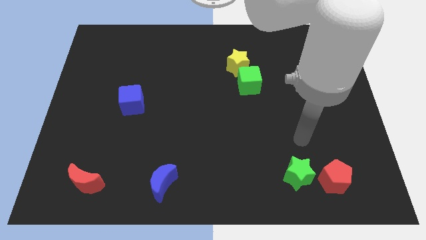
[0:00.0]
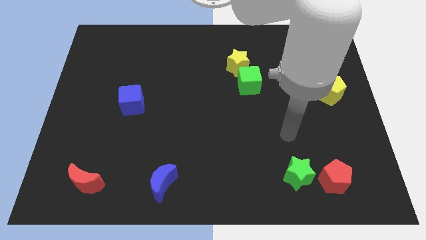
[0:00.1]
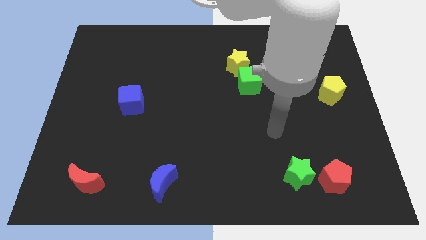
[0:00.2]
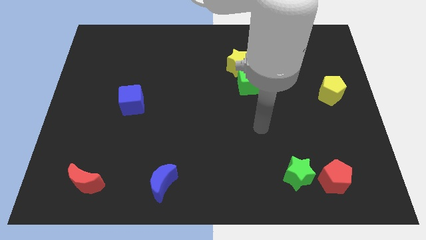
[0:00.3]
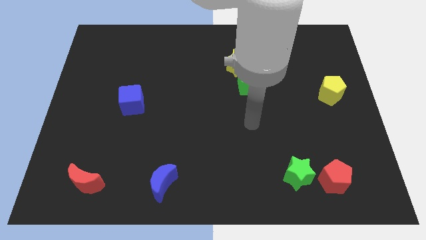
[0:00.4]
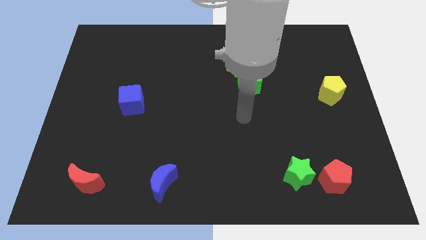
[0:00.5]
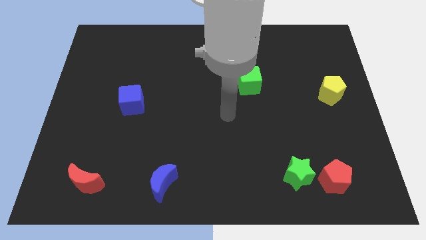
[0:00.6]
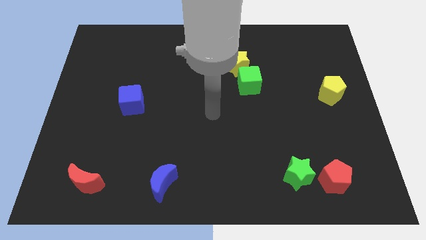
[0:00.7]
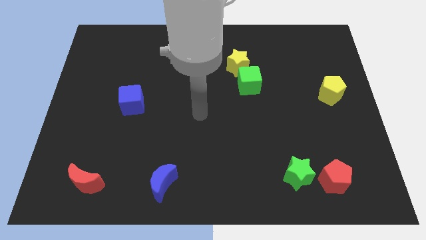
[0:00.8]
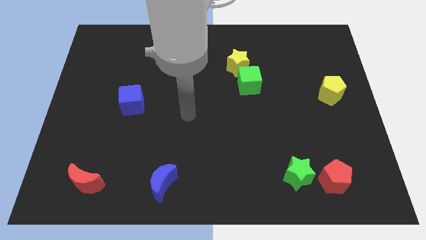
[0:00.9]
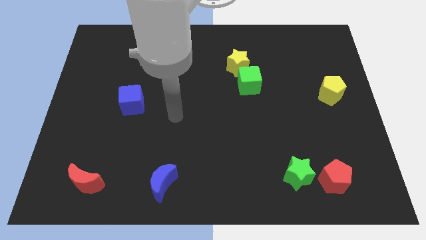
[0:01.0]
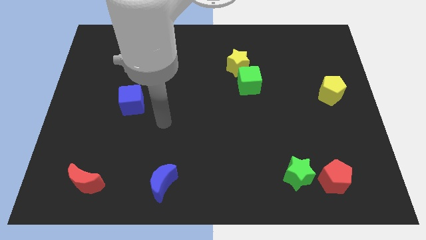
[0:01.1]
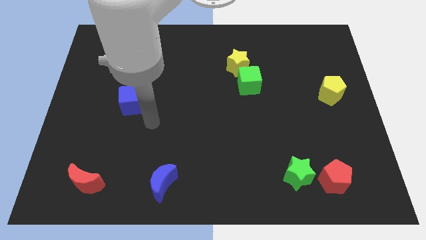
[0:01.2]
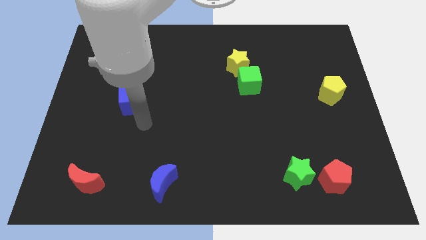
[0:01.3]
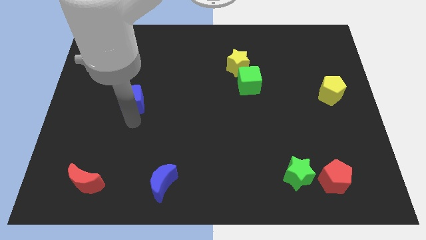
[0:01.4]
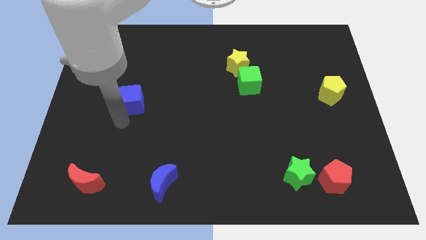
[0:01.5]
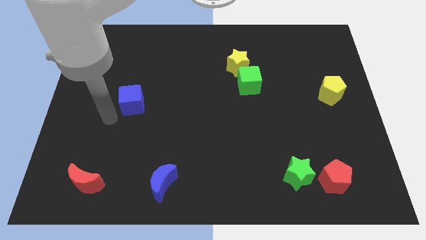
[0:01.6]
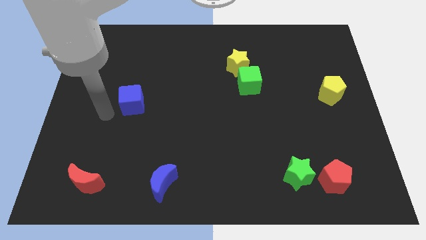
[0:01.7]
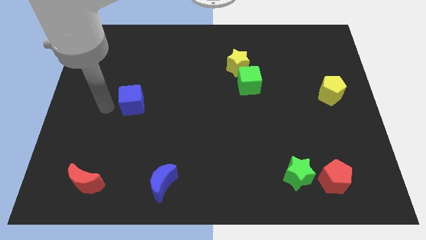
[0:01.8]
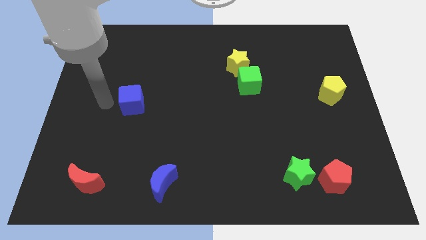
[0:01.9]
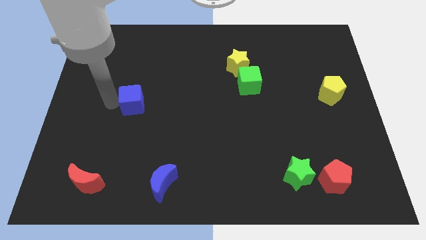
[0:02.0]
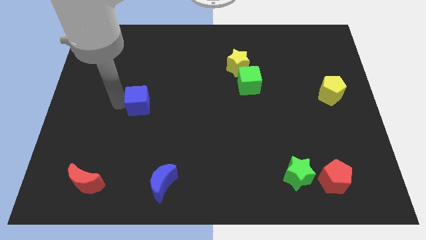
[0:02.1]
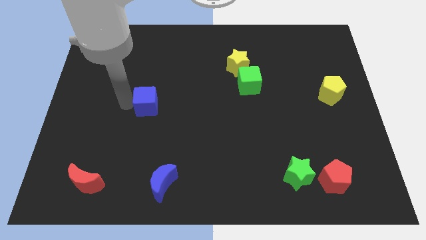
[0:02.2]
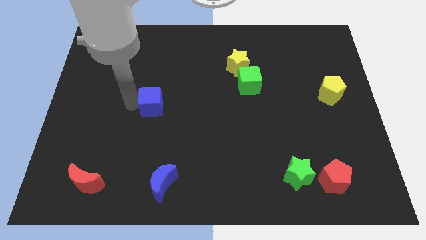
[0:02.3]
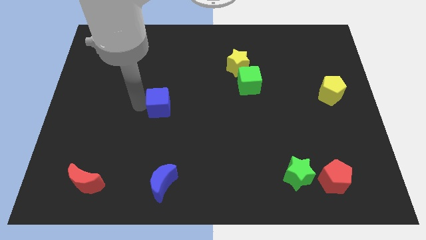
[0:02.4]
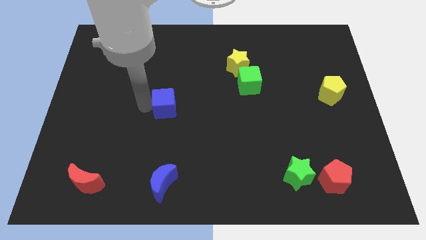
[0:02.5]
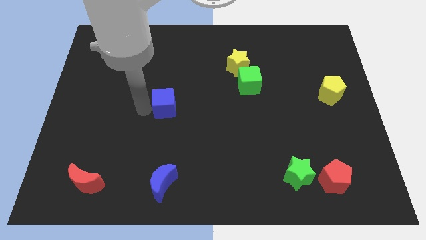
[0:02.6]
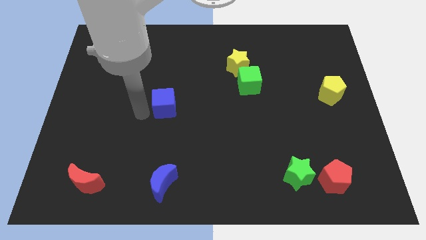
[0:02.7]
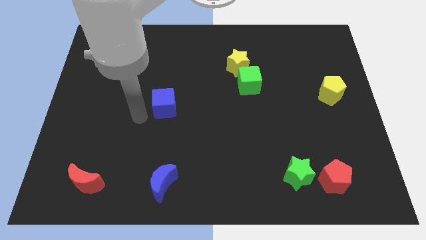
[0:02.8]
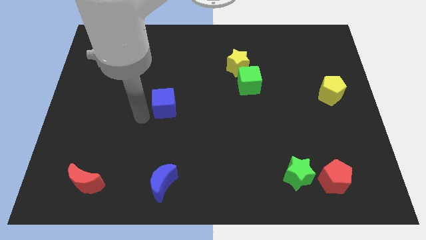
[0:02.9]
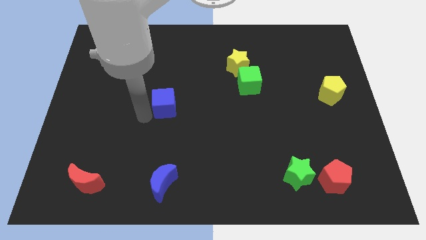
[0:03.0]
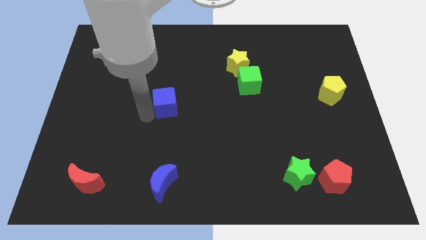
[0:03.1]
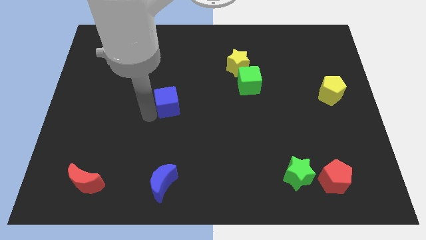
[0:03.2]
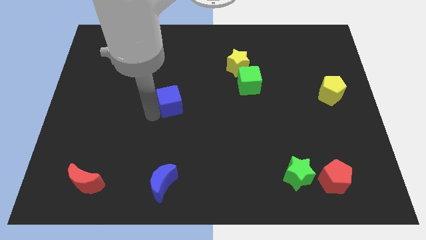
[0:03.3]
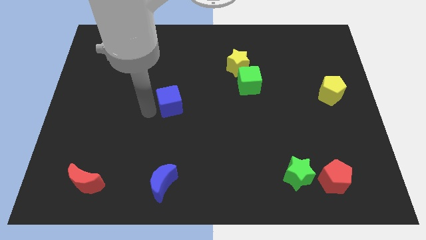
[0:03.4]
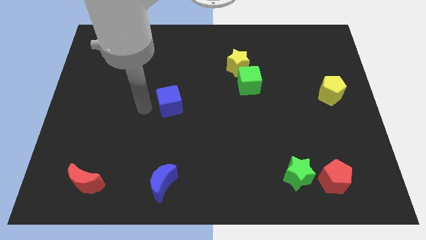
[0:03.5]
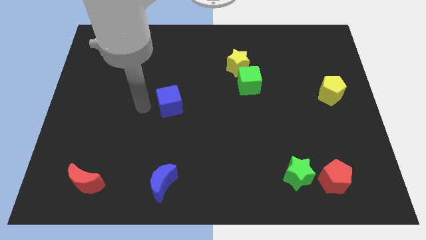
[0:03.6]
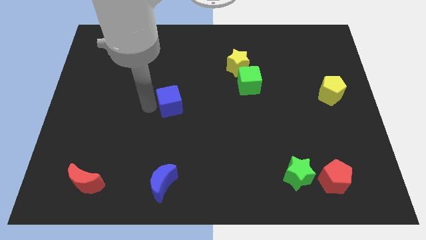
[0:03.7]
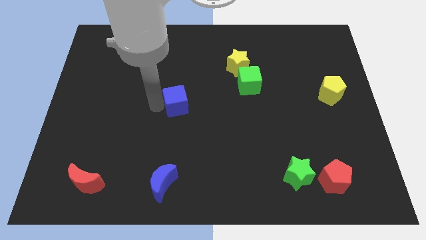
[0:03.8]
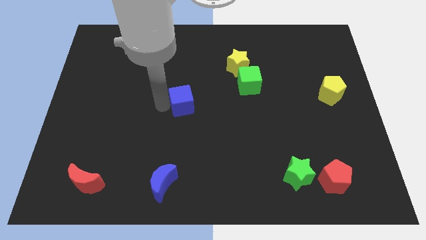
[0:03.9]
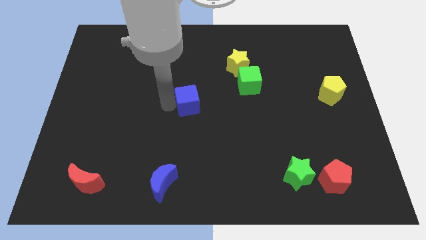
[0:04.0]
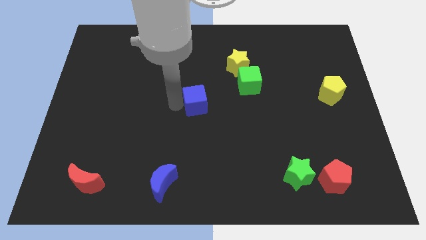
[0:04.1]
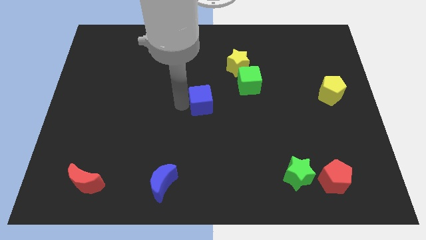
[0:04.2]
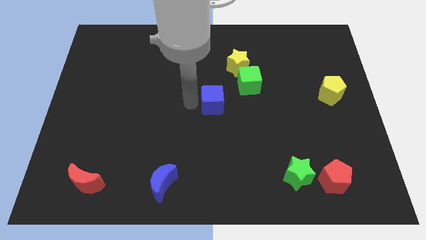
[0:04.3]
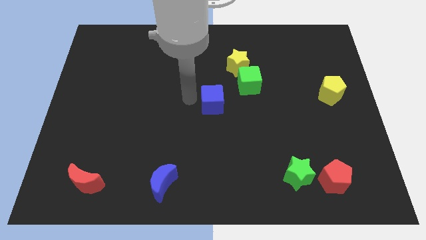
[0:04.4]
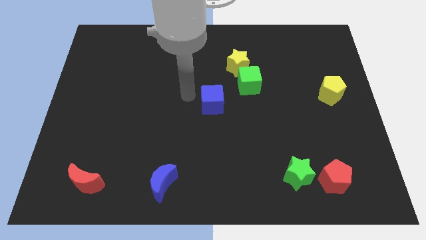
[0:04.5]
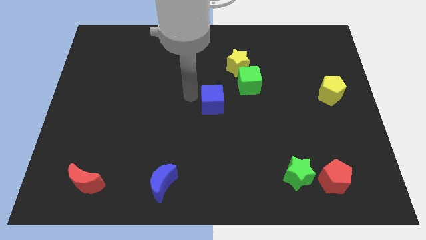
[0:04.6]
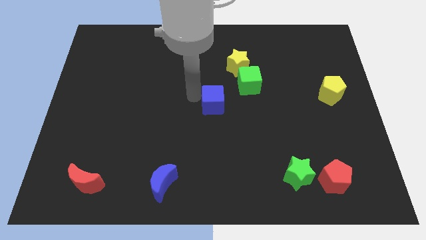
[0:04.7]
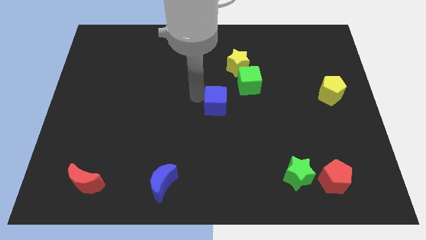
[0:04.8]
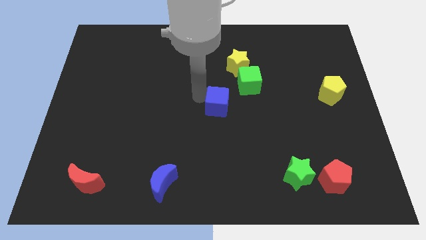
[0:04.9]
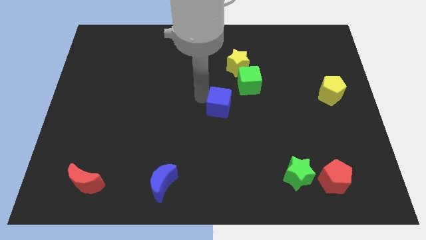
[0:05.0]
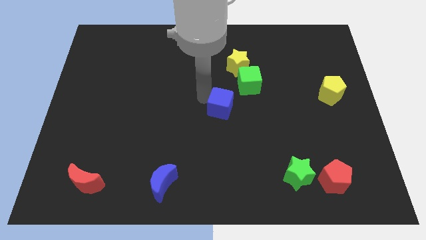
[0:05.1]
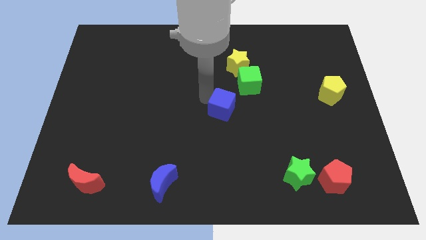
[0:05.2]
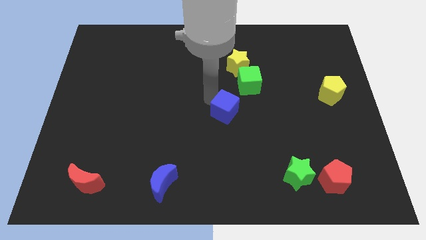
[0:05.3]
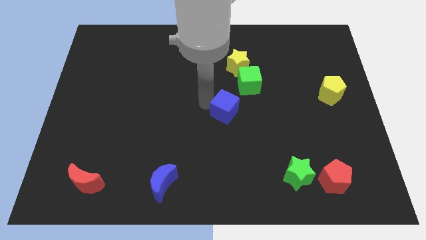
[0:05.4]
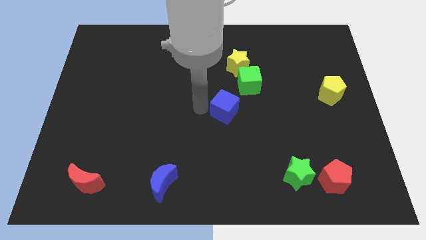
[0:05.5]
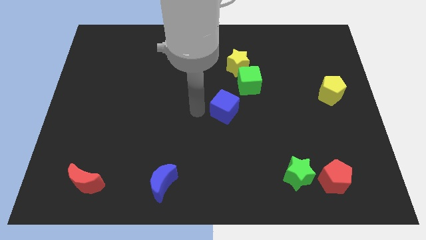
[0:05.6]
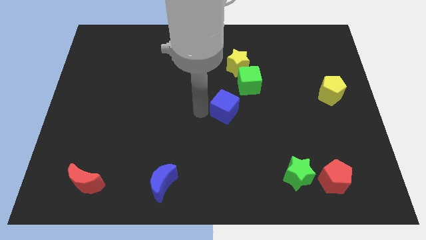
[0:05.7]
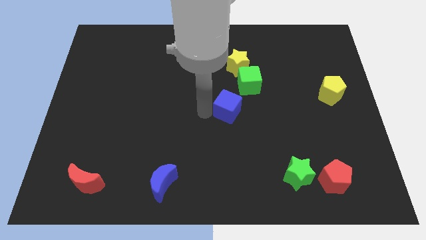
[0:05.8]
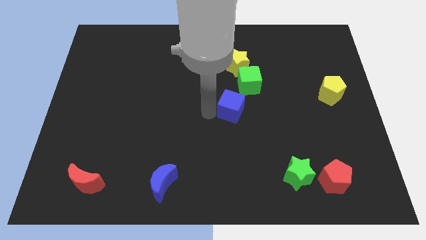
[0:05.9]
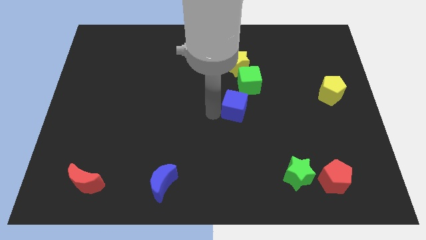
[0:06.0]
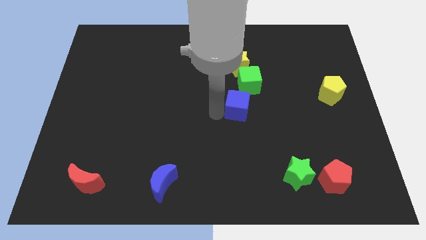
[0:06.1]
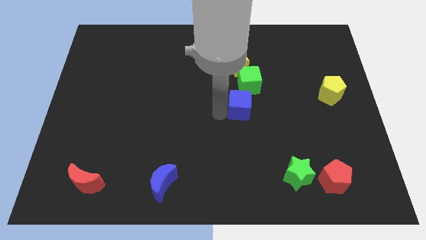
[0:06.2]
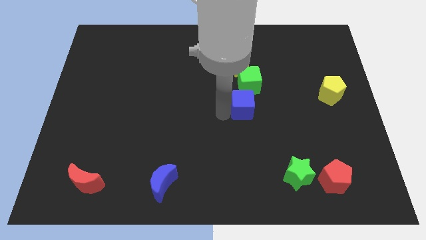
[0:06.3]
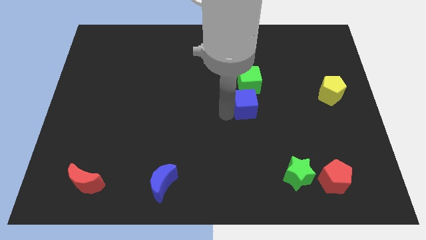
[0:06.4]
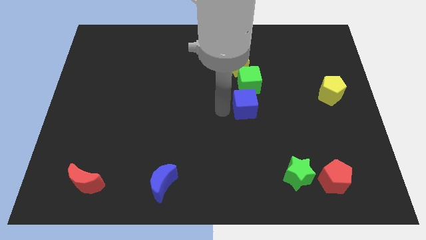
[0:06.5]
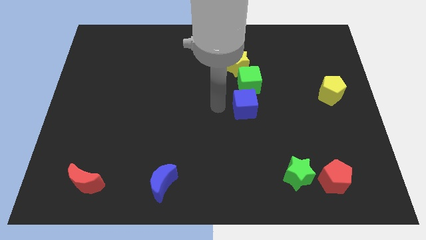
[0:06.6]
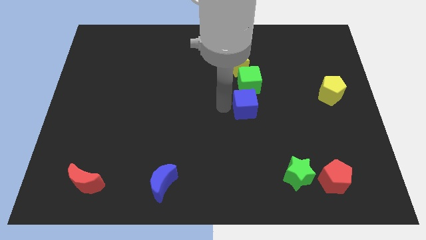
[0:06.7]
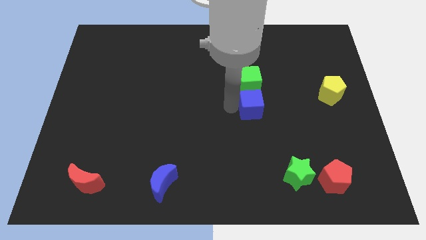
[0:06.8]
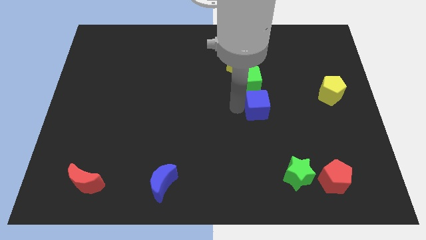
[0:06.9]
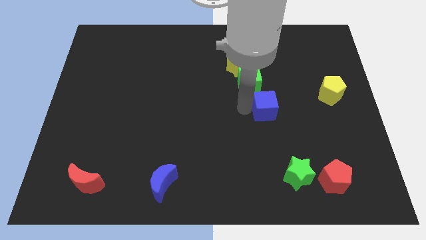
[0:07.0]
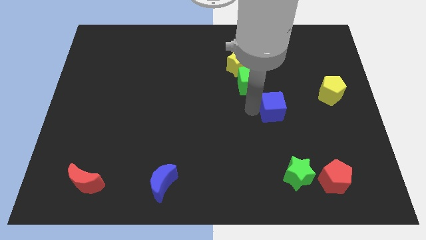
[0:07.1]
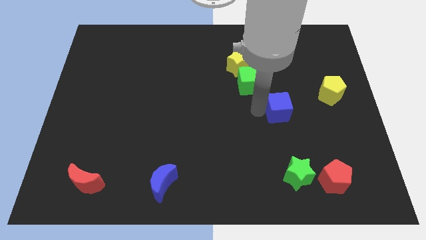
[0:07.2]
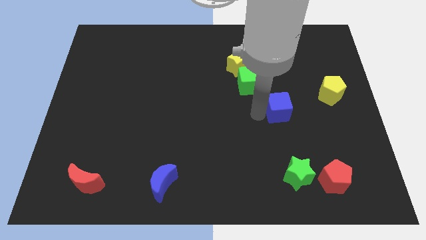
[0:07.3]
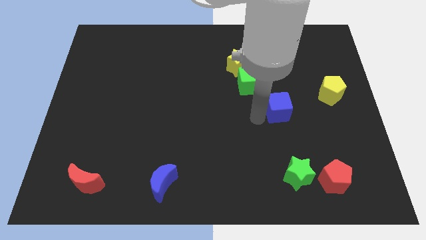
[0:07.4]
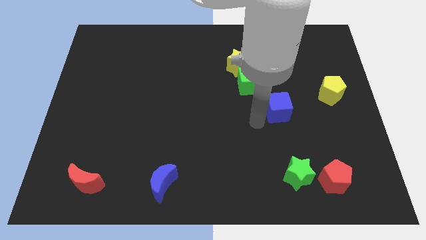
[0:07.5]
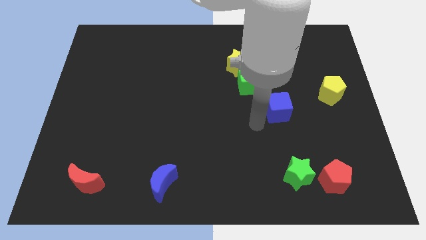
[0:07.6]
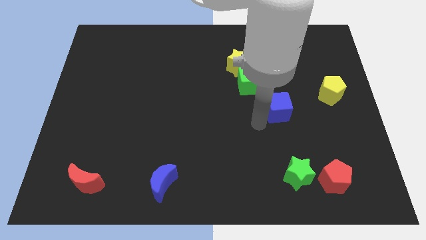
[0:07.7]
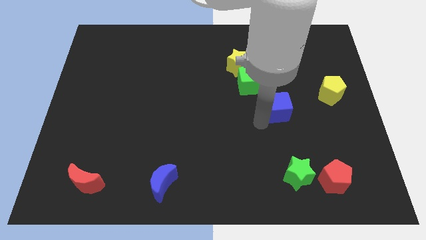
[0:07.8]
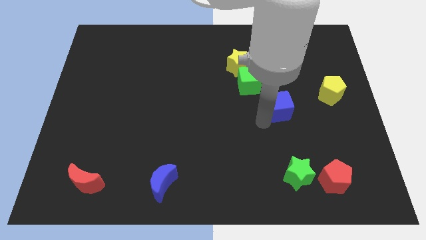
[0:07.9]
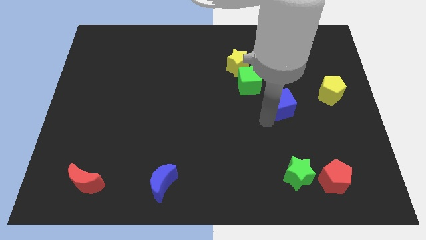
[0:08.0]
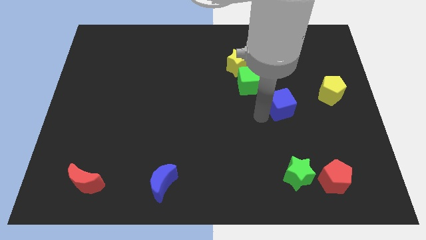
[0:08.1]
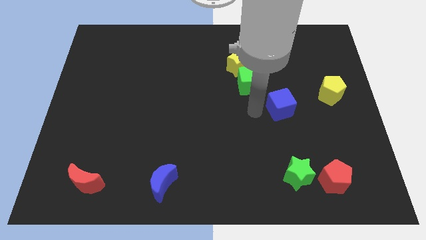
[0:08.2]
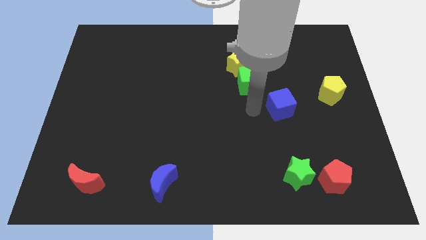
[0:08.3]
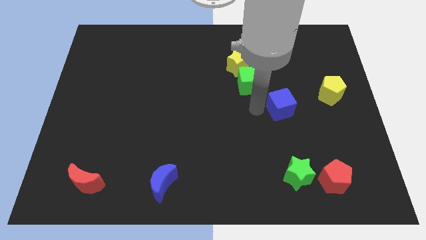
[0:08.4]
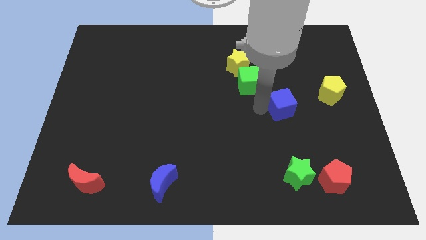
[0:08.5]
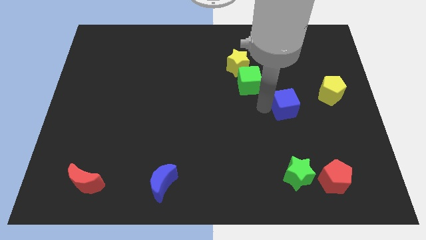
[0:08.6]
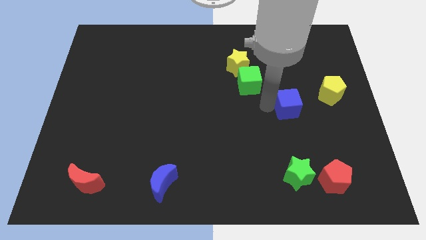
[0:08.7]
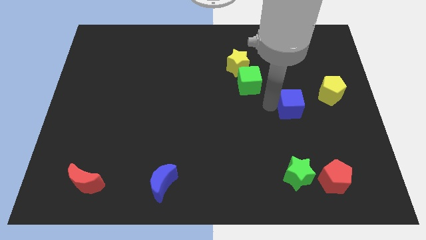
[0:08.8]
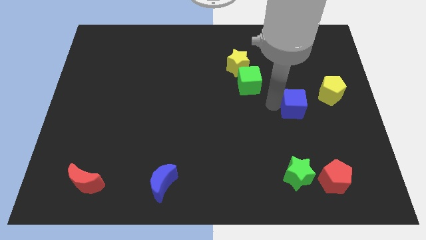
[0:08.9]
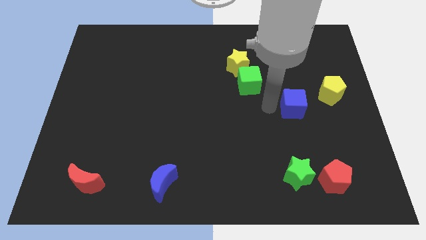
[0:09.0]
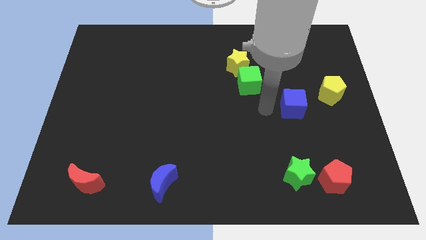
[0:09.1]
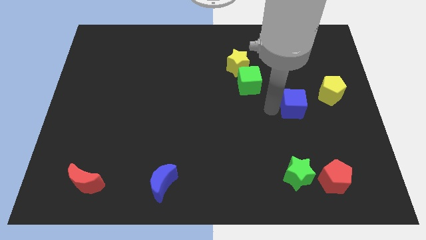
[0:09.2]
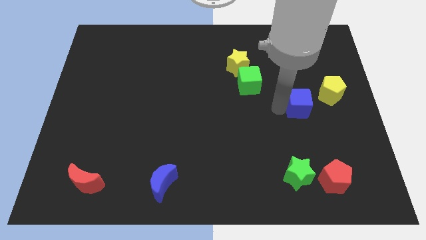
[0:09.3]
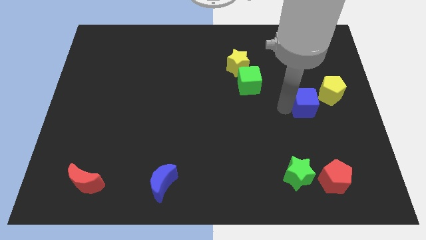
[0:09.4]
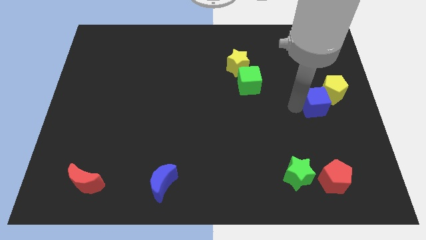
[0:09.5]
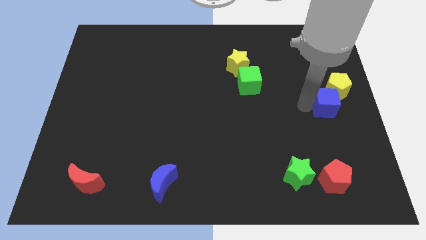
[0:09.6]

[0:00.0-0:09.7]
move the blue cube to the right side of the board
